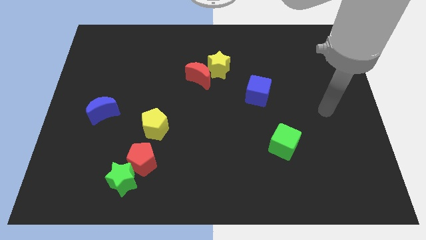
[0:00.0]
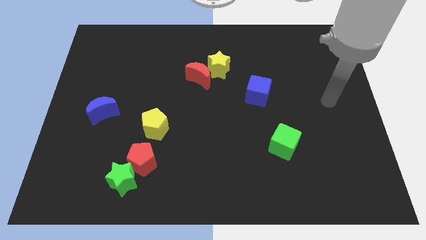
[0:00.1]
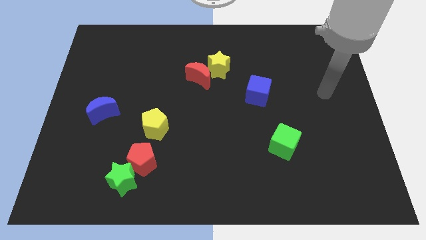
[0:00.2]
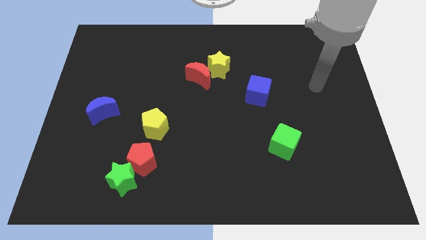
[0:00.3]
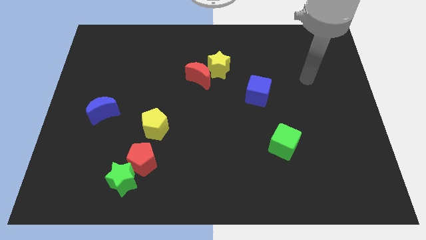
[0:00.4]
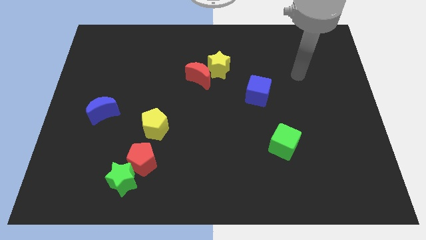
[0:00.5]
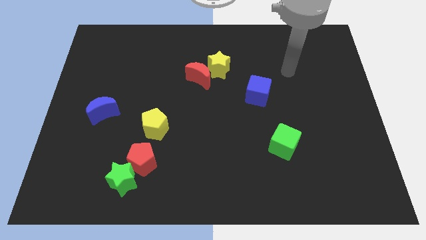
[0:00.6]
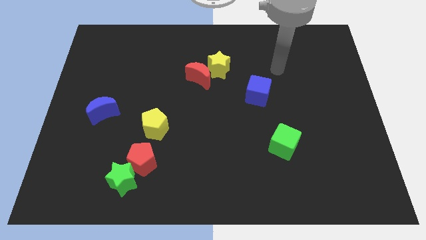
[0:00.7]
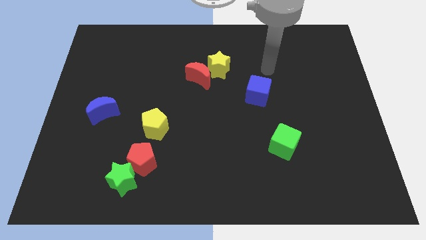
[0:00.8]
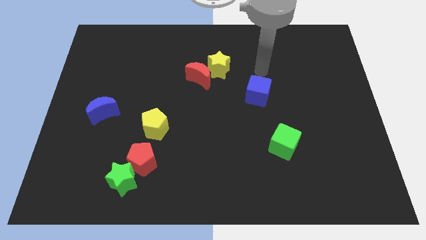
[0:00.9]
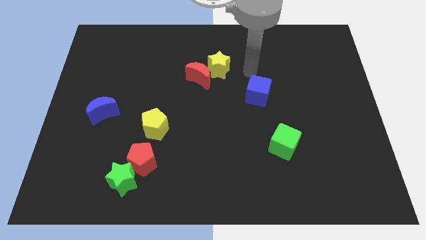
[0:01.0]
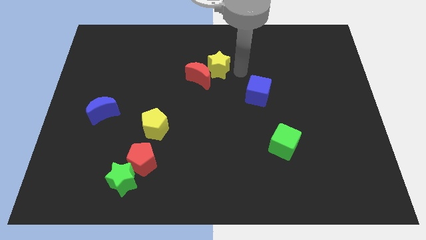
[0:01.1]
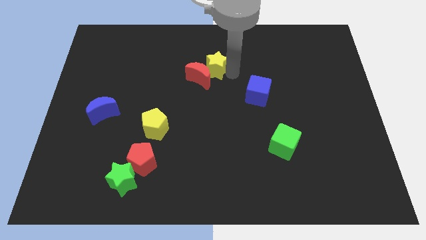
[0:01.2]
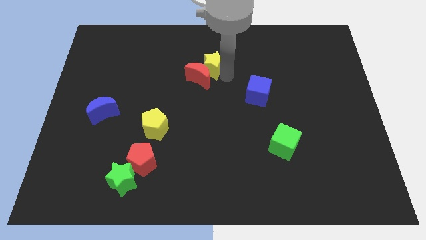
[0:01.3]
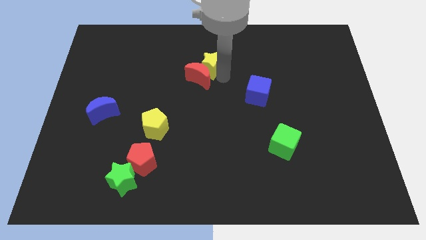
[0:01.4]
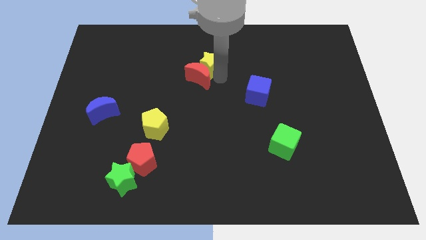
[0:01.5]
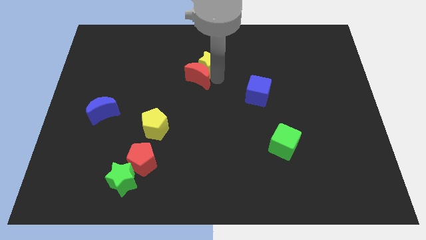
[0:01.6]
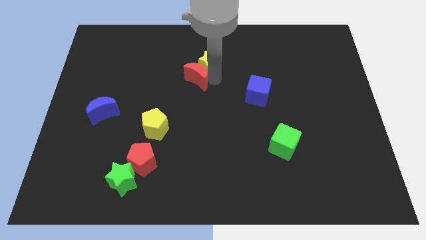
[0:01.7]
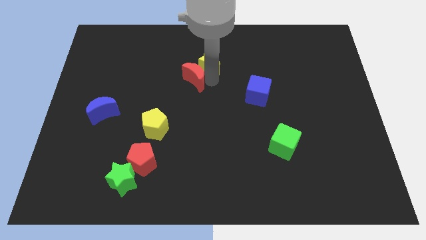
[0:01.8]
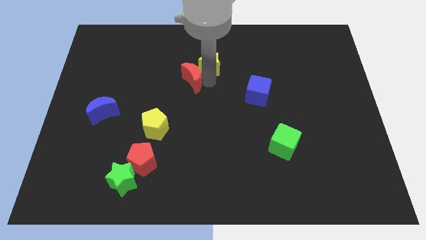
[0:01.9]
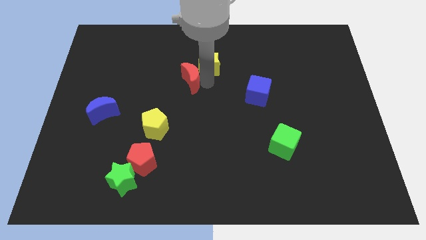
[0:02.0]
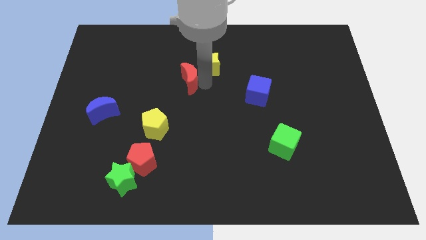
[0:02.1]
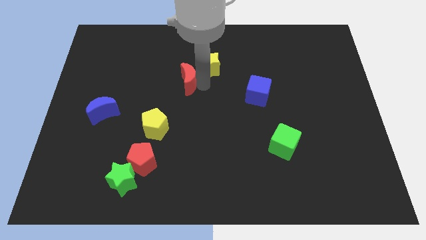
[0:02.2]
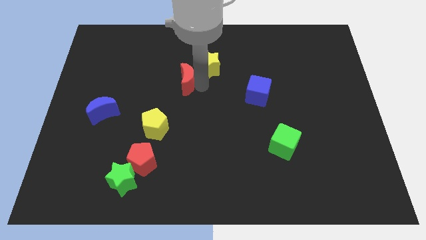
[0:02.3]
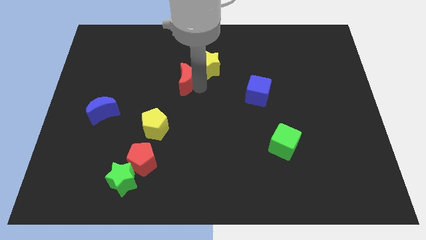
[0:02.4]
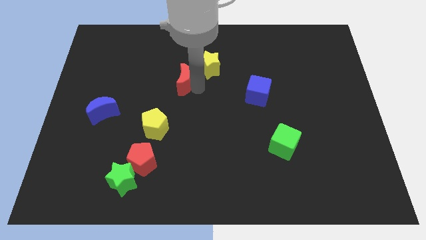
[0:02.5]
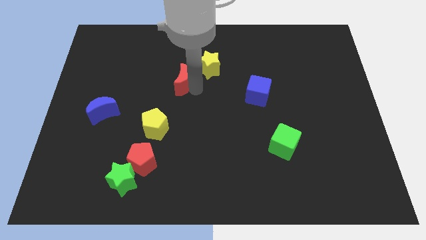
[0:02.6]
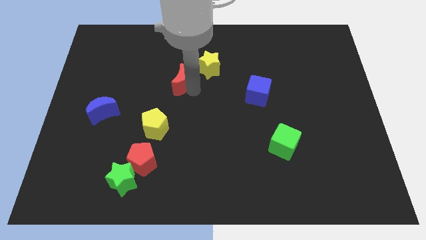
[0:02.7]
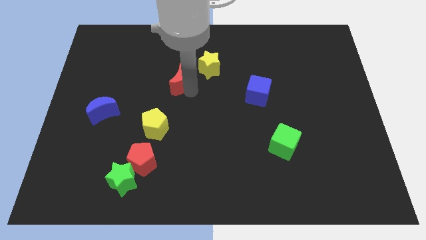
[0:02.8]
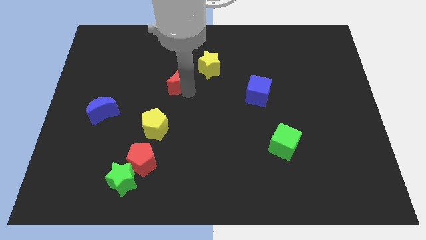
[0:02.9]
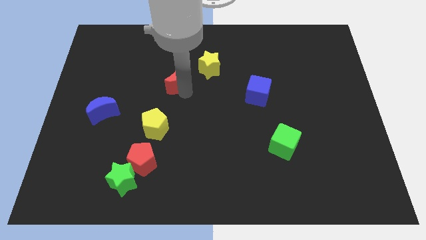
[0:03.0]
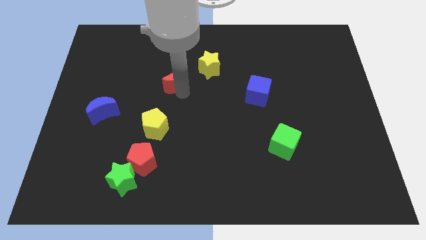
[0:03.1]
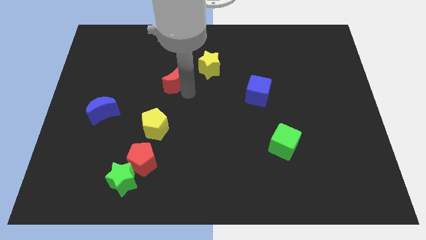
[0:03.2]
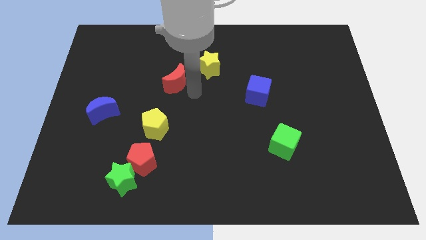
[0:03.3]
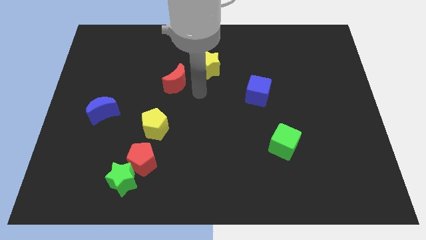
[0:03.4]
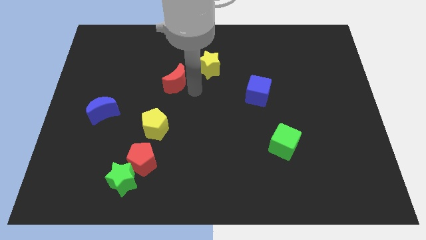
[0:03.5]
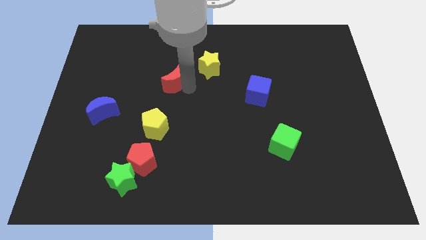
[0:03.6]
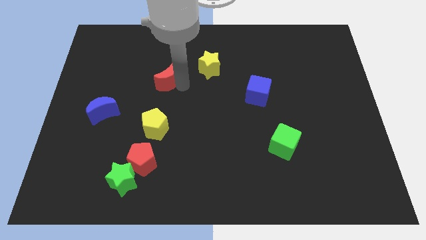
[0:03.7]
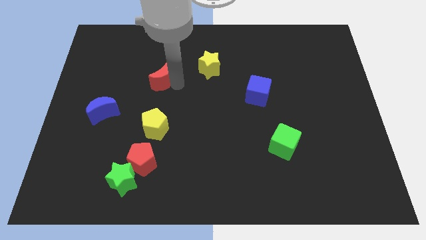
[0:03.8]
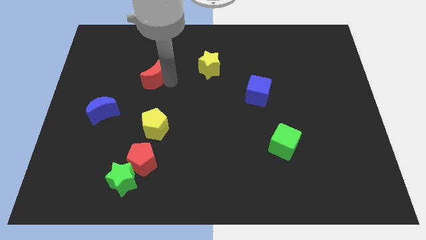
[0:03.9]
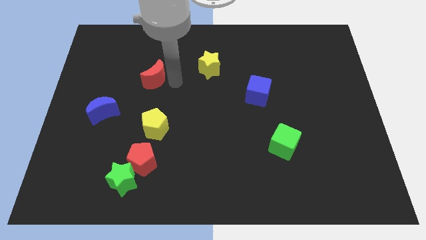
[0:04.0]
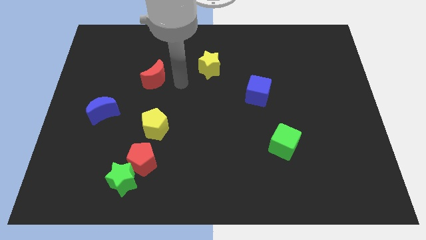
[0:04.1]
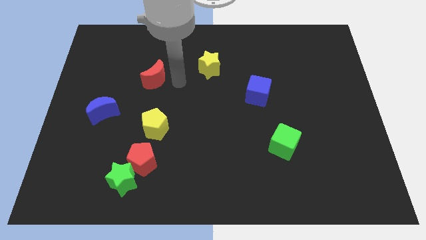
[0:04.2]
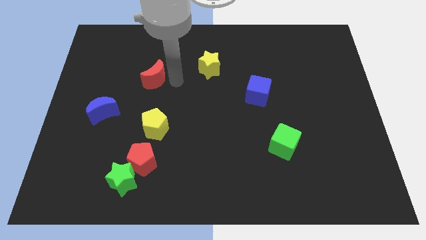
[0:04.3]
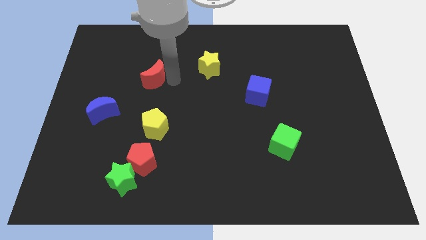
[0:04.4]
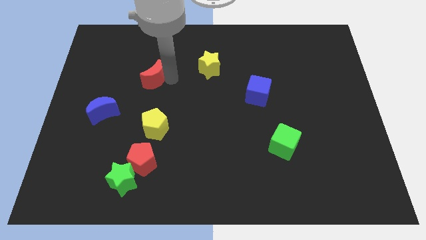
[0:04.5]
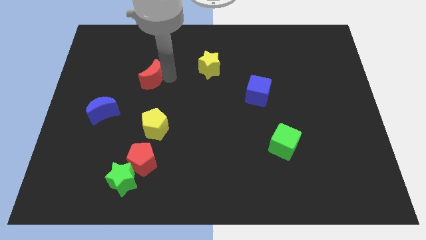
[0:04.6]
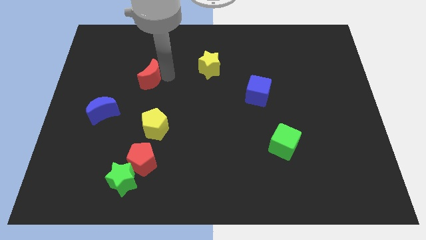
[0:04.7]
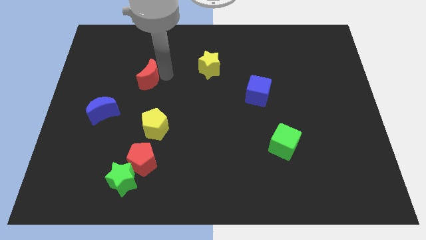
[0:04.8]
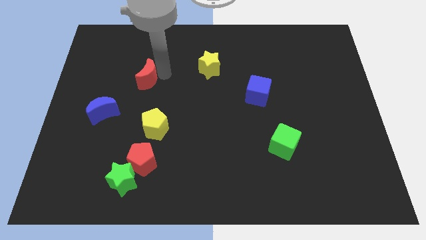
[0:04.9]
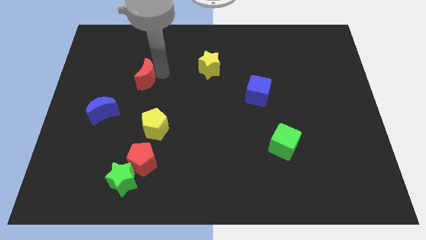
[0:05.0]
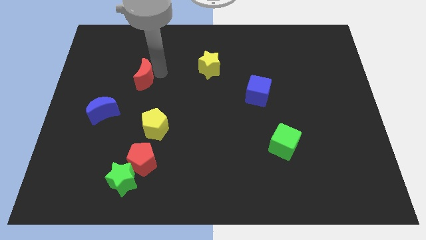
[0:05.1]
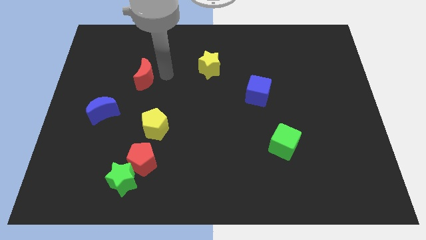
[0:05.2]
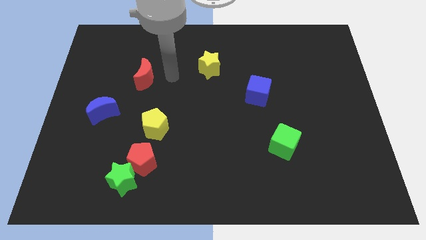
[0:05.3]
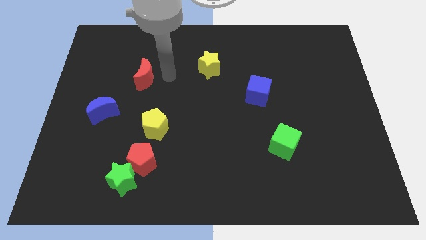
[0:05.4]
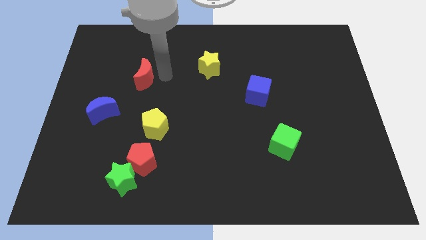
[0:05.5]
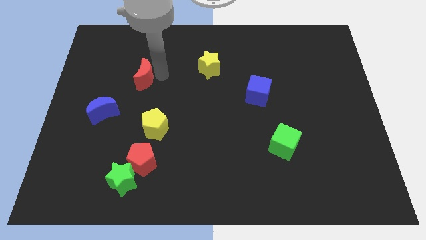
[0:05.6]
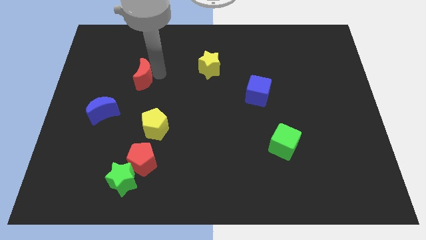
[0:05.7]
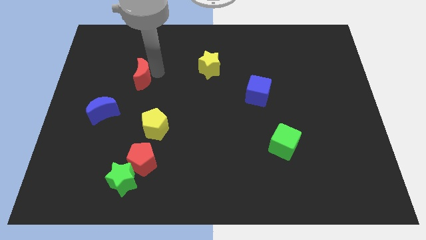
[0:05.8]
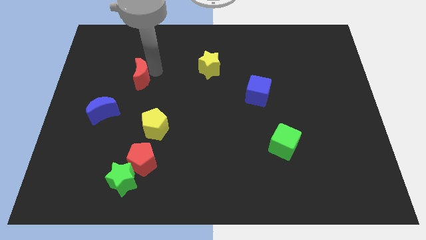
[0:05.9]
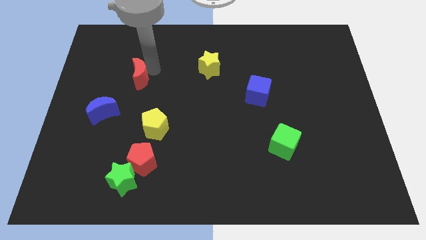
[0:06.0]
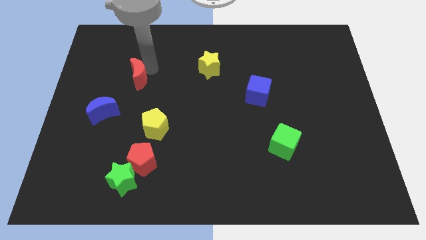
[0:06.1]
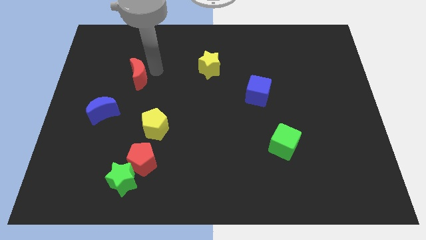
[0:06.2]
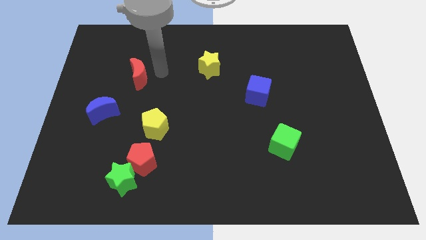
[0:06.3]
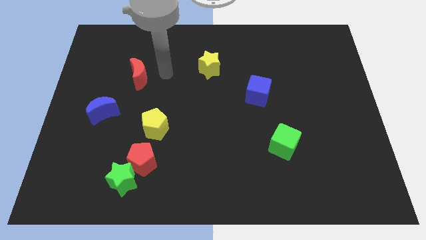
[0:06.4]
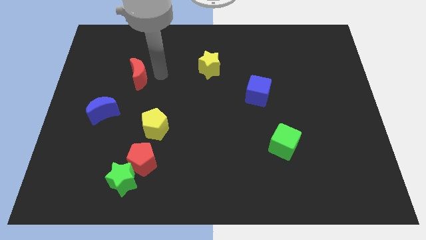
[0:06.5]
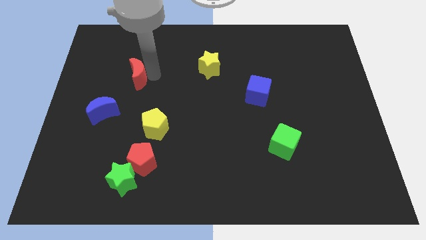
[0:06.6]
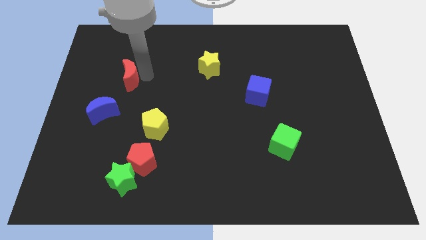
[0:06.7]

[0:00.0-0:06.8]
slide the red moon to the top side of the blue moon
